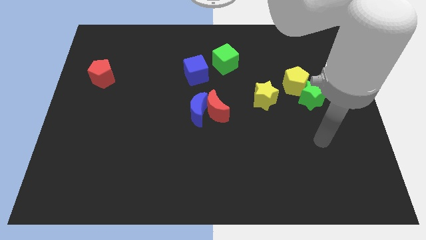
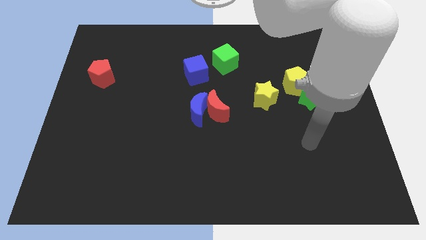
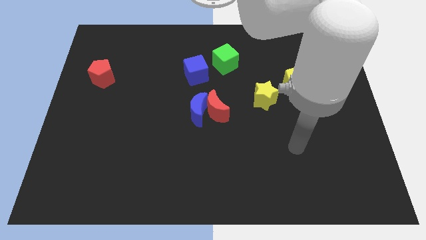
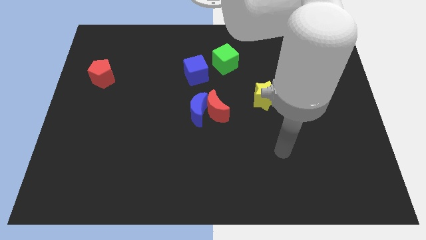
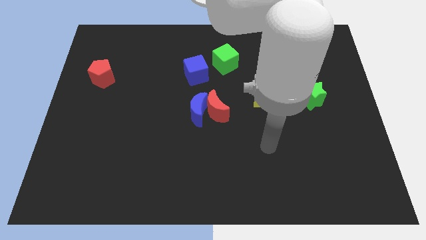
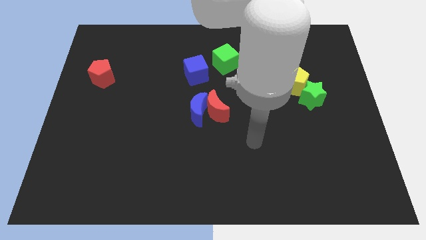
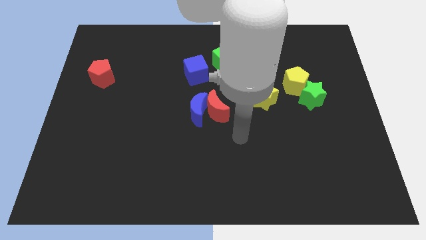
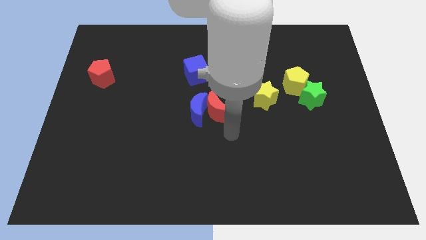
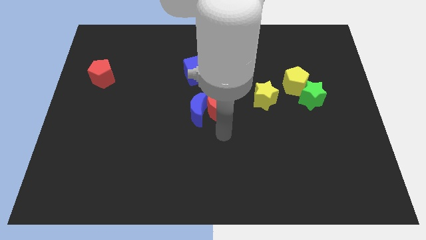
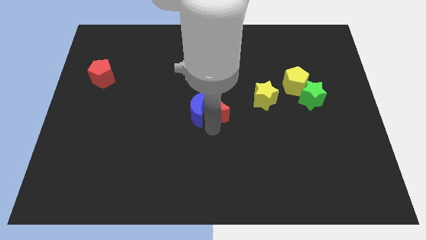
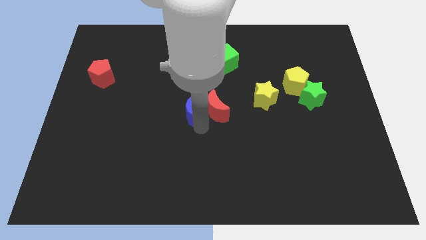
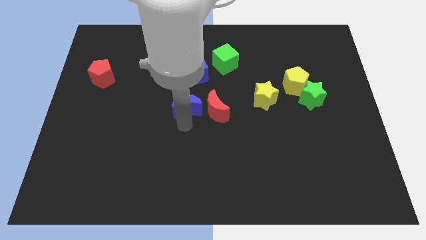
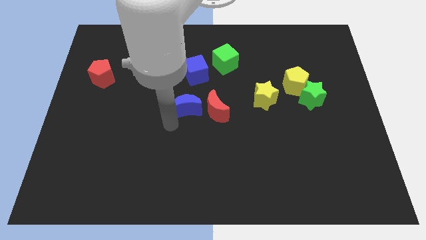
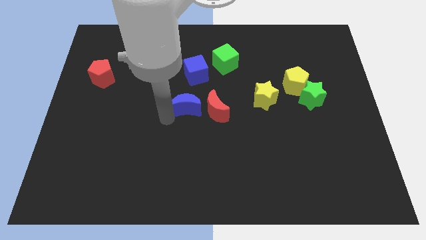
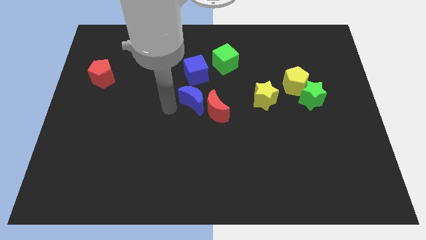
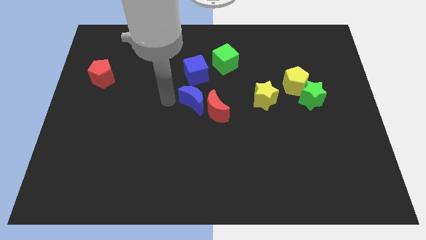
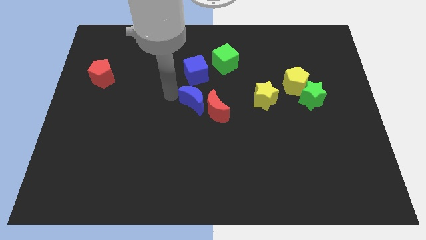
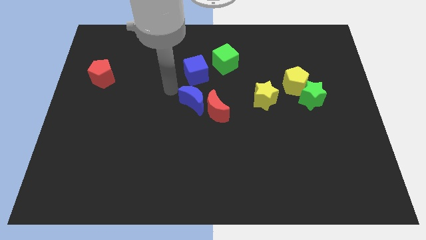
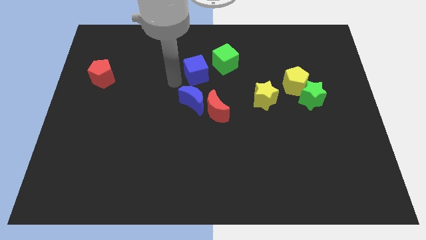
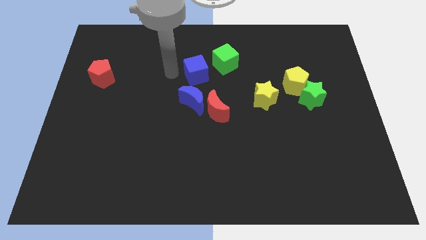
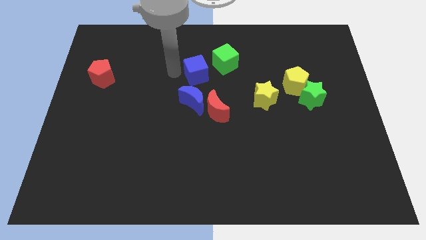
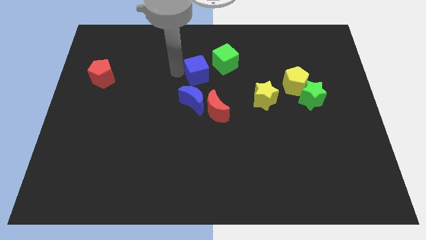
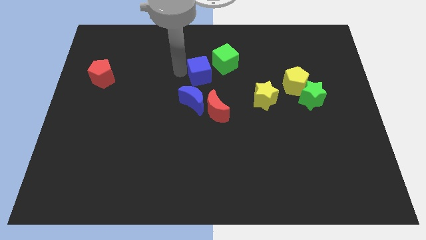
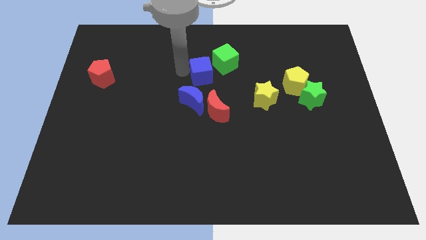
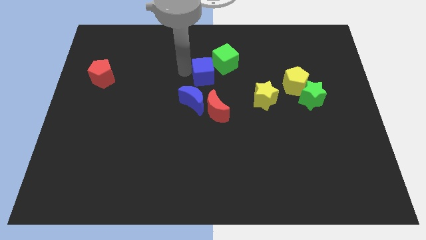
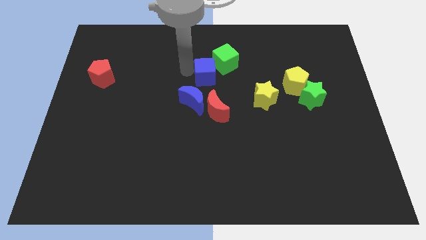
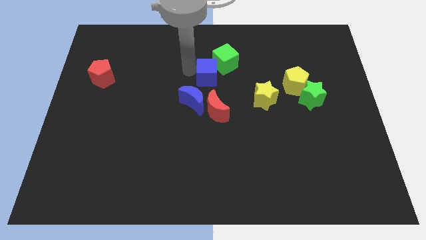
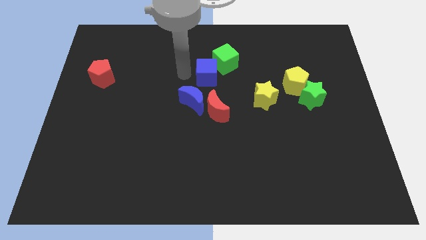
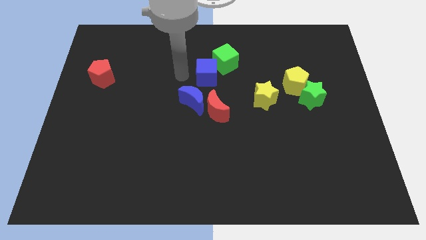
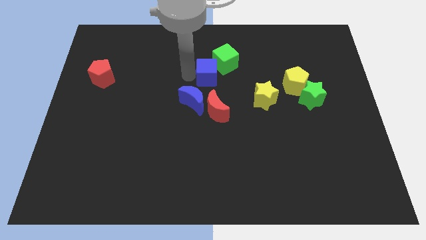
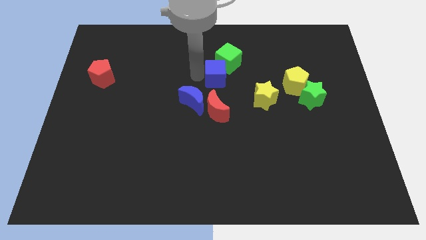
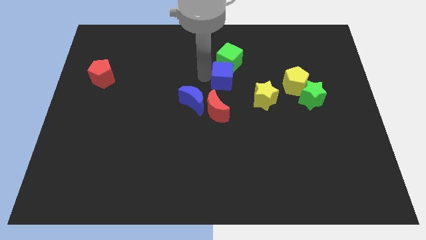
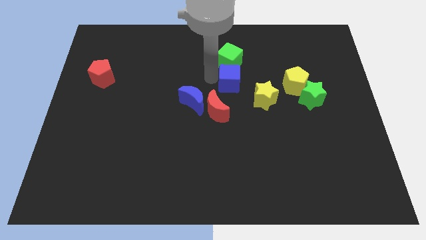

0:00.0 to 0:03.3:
slide the blue cube somewhat to the right

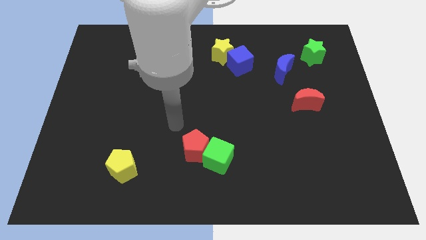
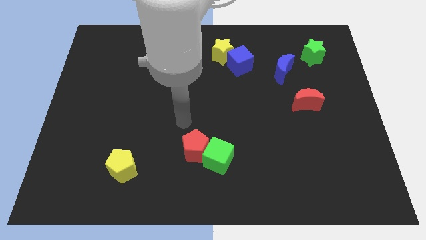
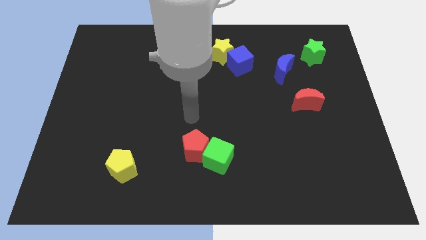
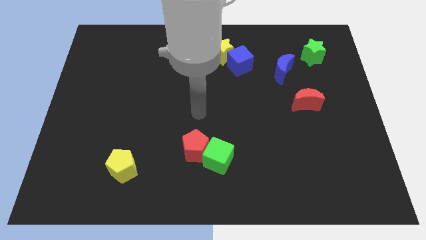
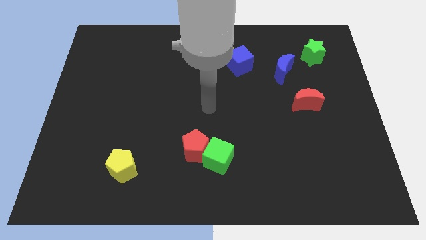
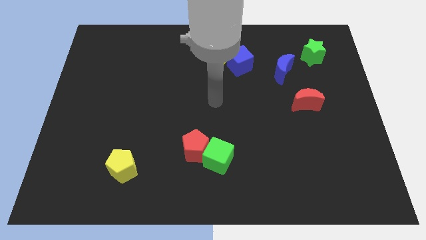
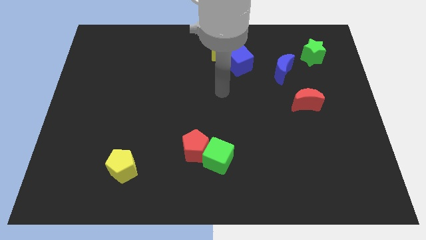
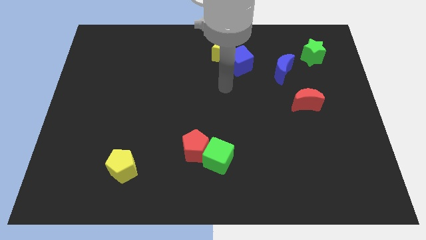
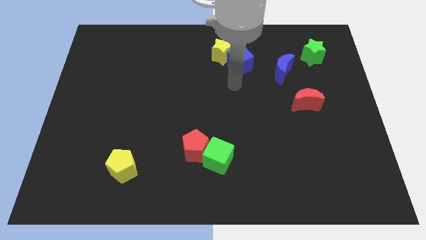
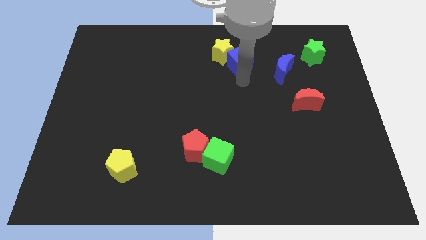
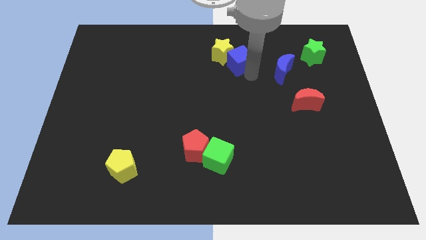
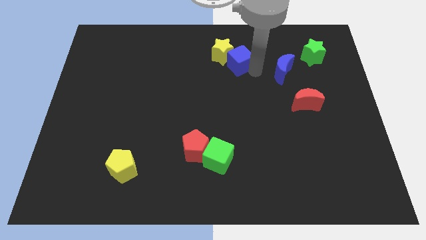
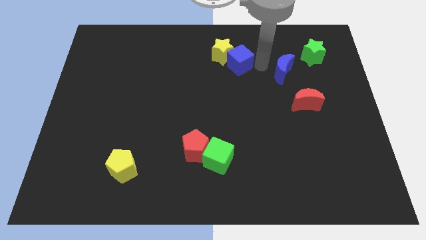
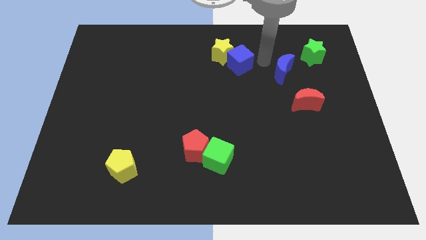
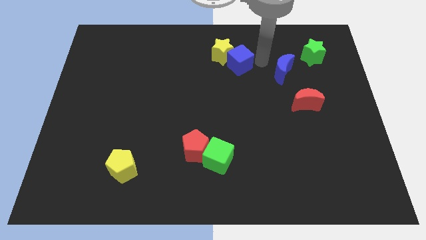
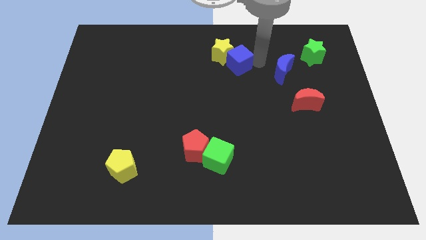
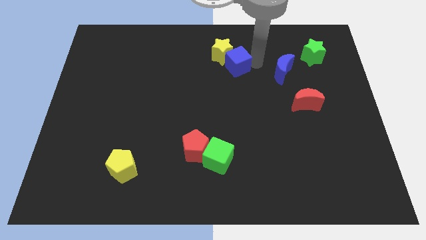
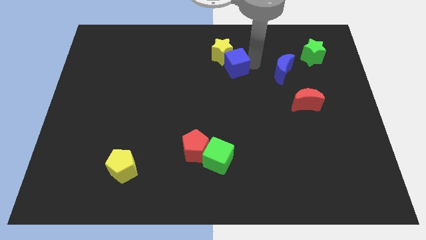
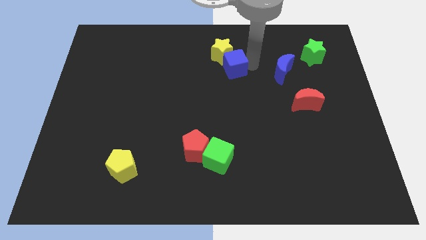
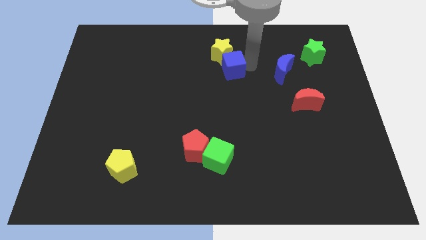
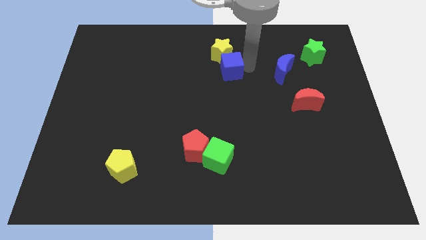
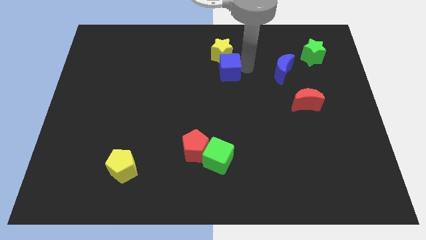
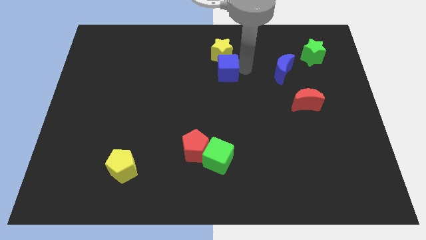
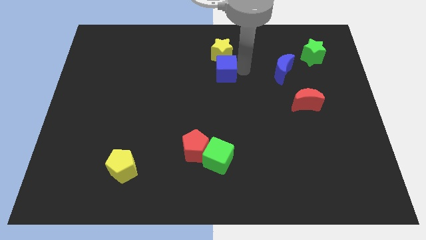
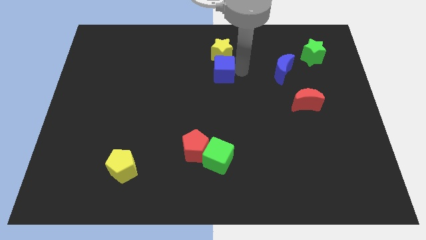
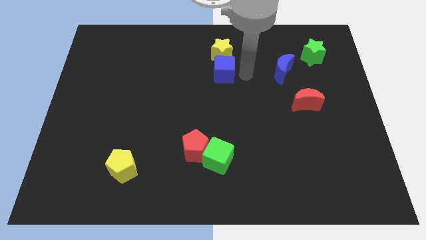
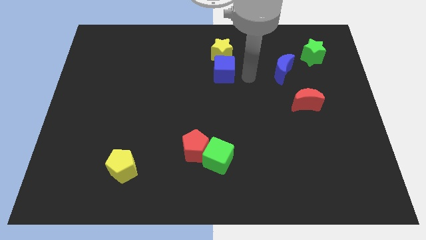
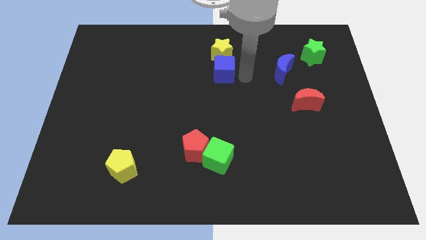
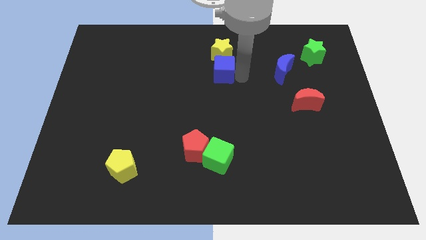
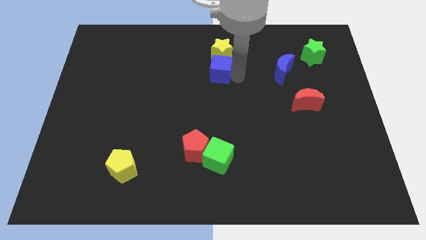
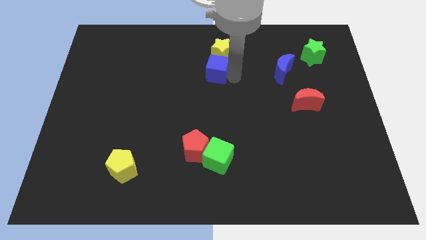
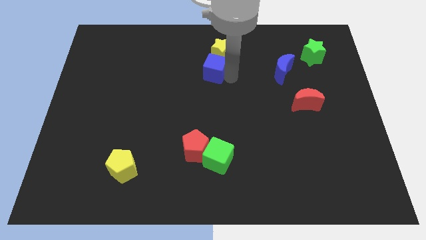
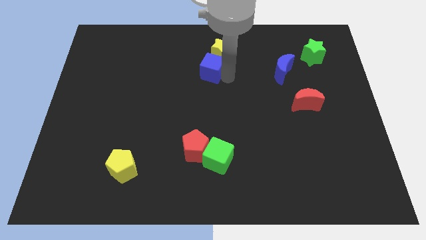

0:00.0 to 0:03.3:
slide the blue cube a bit left

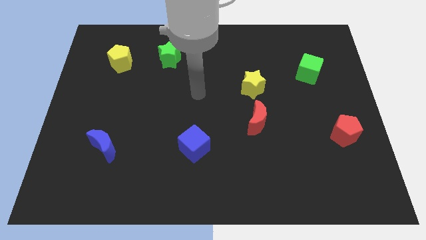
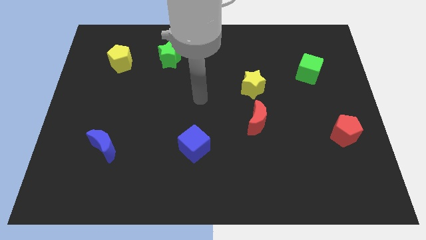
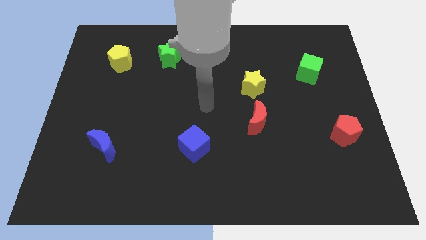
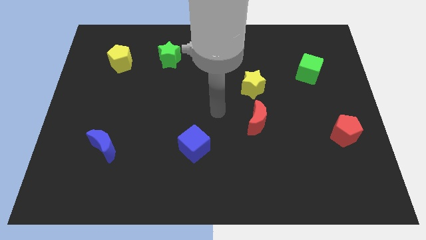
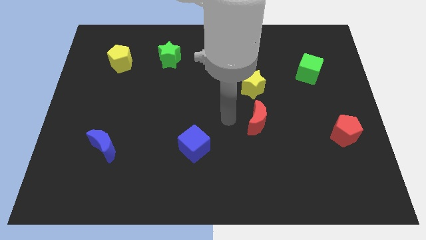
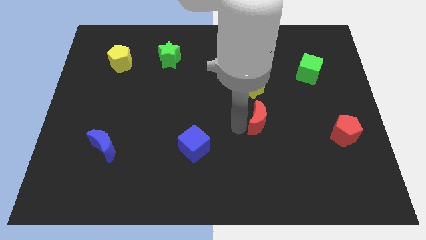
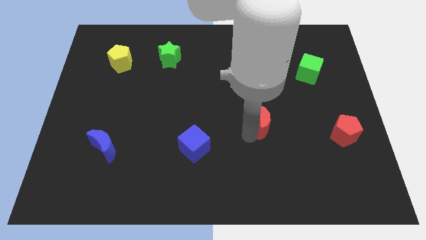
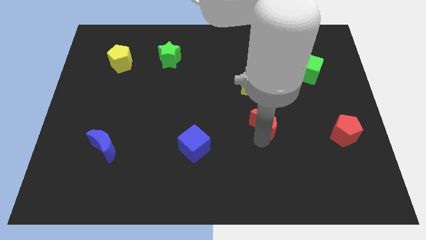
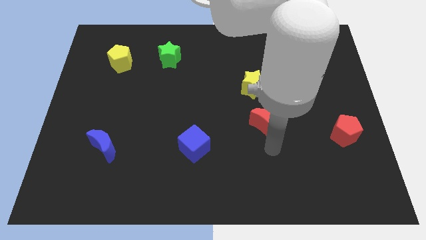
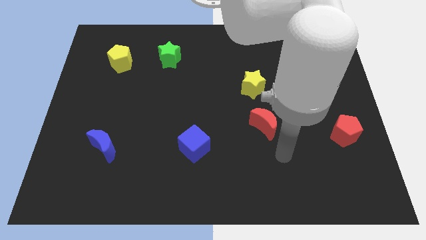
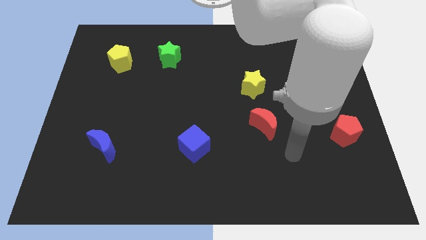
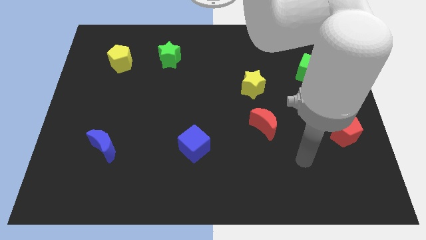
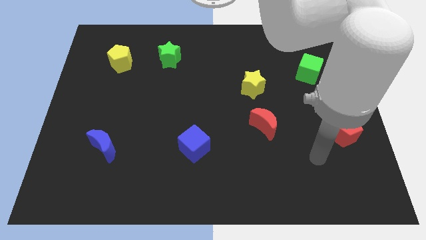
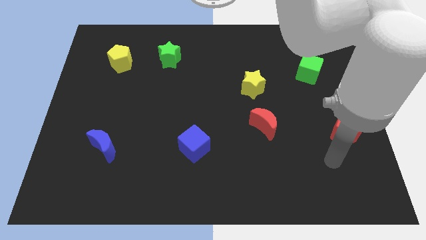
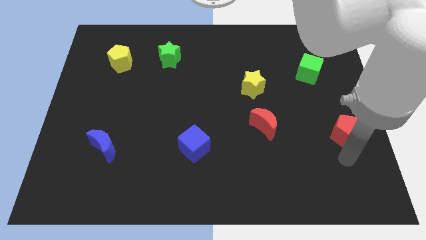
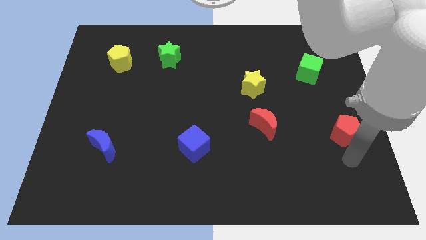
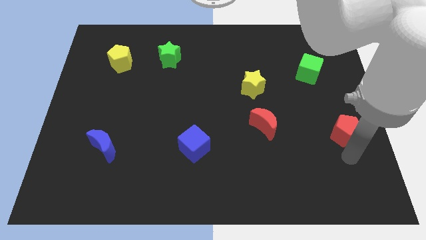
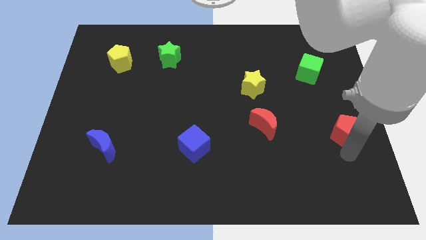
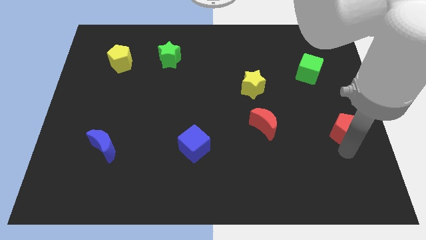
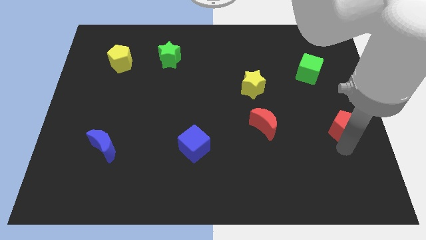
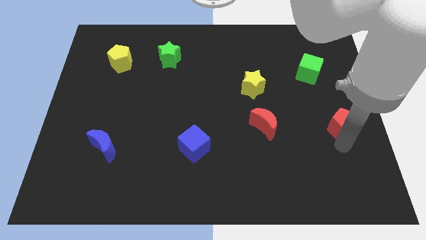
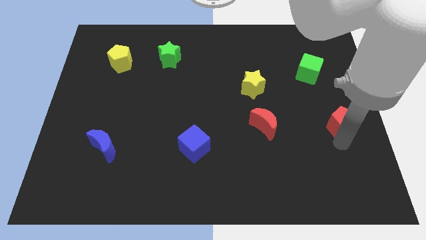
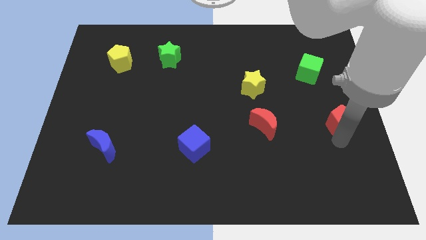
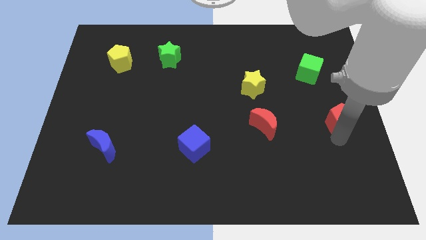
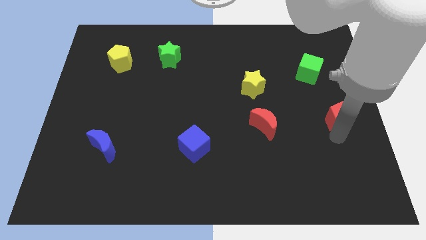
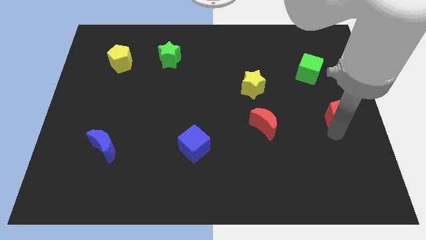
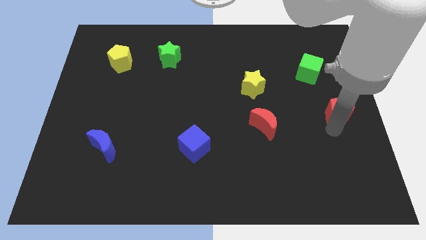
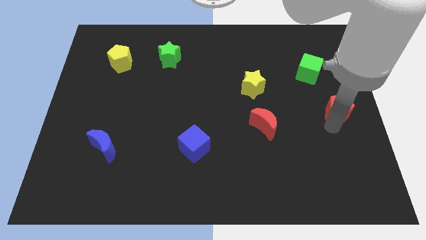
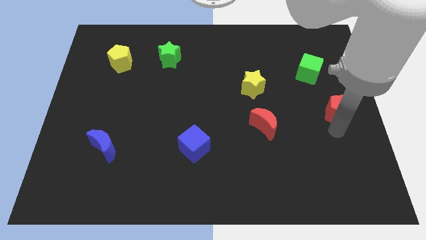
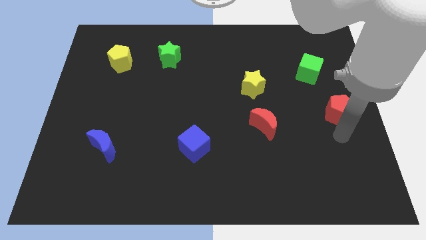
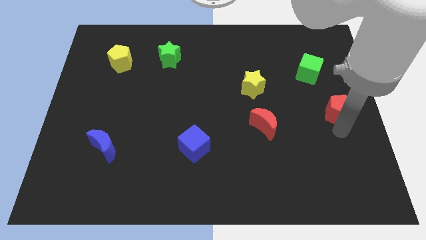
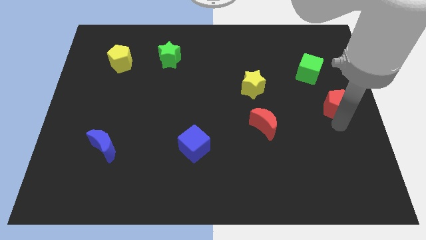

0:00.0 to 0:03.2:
slightly move the red pentagon upwards
